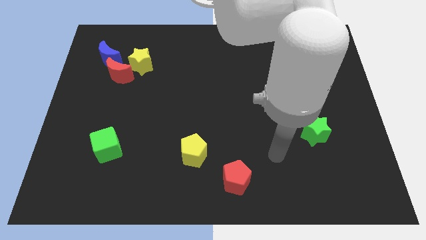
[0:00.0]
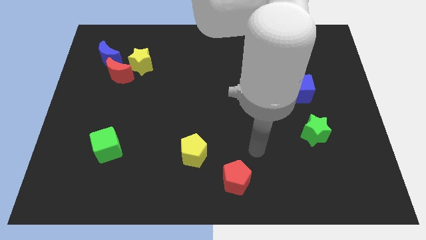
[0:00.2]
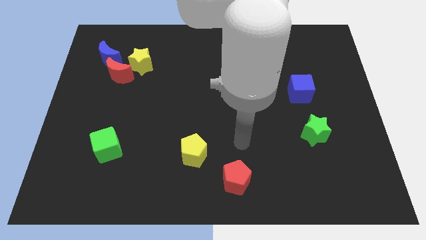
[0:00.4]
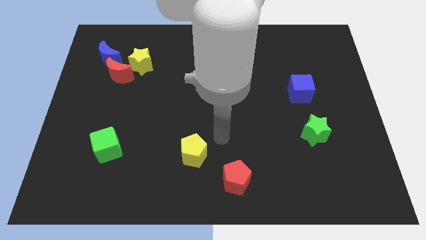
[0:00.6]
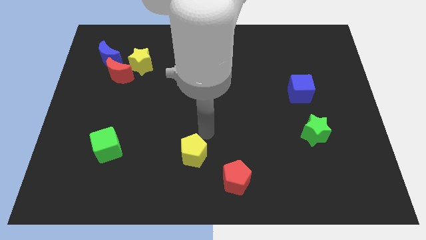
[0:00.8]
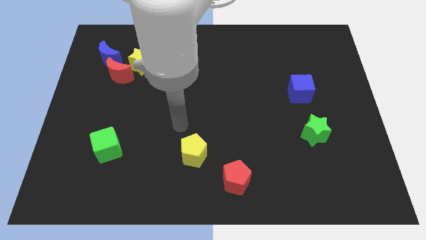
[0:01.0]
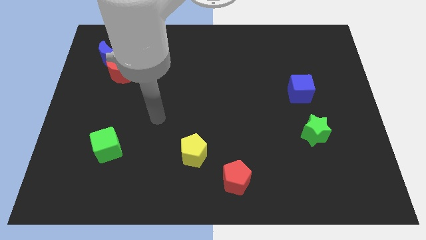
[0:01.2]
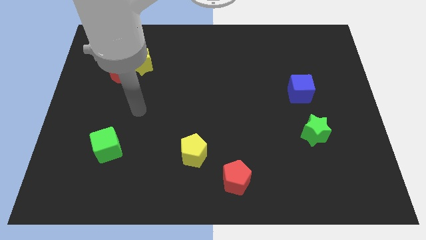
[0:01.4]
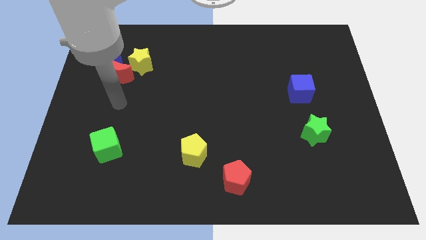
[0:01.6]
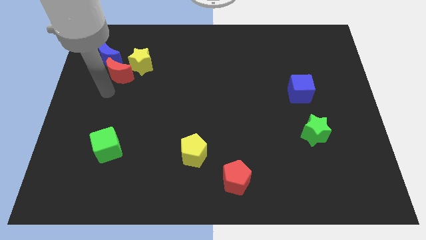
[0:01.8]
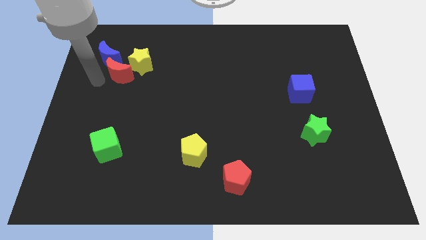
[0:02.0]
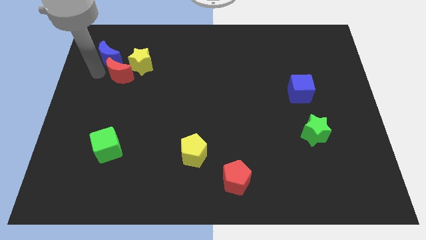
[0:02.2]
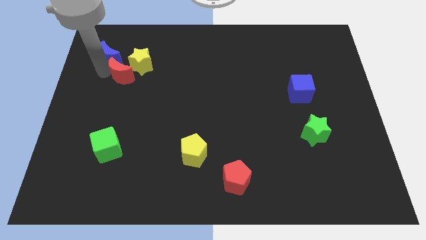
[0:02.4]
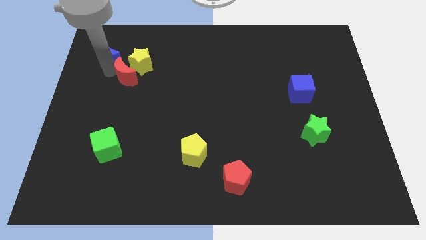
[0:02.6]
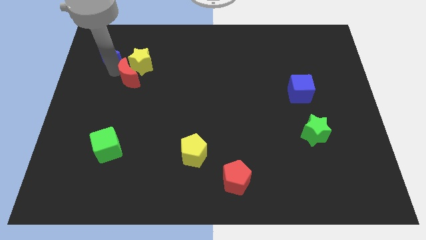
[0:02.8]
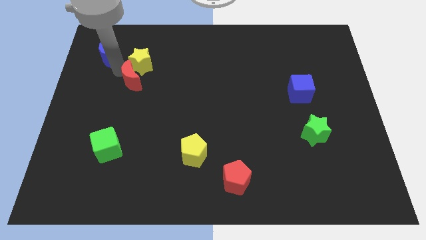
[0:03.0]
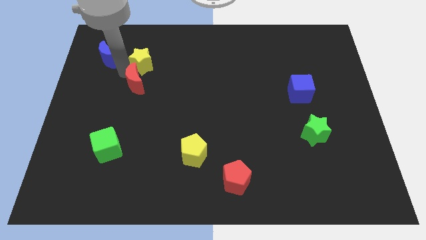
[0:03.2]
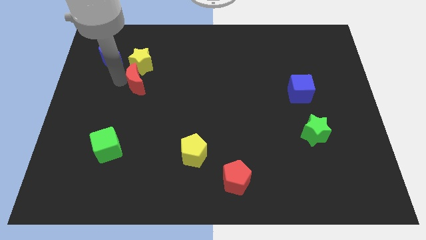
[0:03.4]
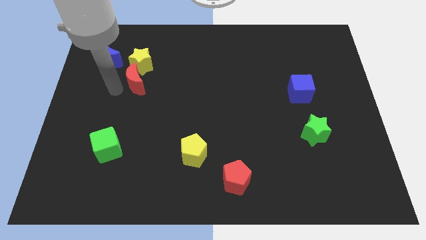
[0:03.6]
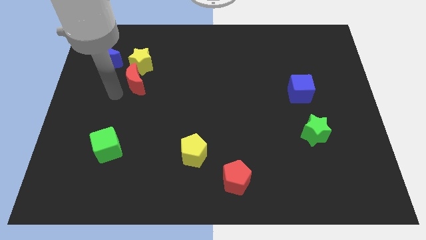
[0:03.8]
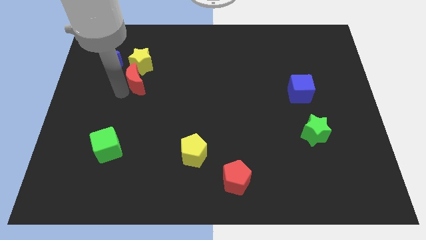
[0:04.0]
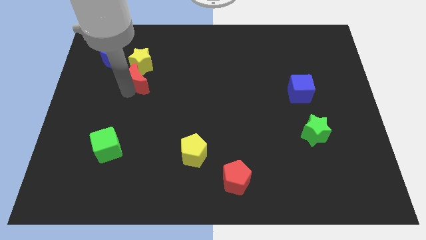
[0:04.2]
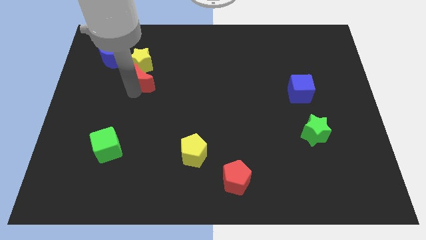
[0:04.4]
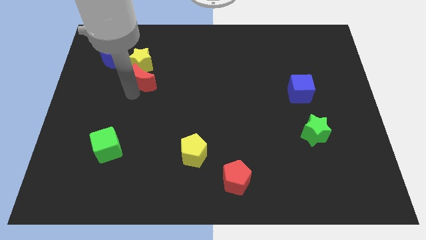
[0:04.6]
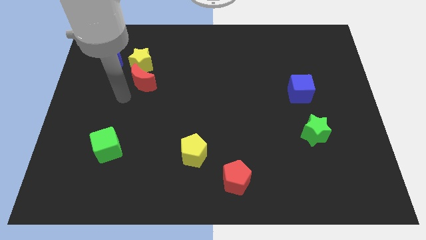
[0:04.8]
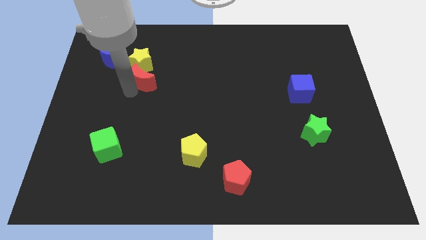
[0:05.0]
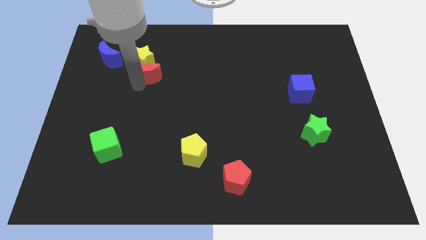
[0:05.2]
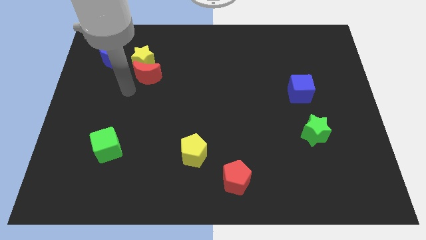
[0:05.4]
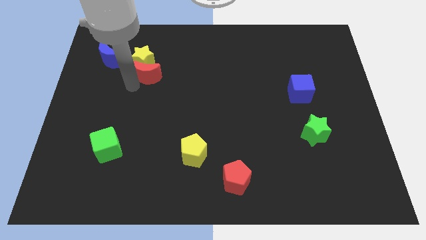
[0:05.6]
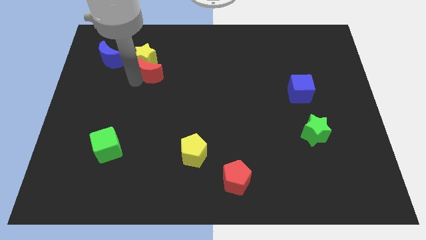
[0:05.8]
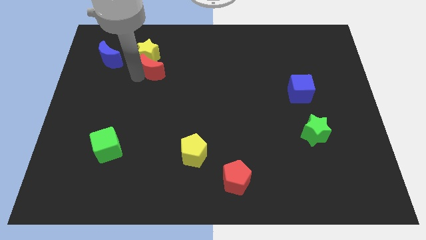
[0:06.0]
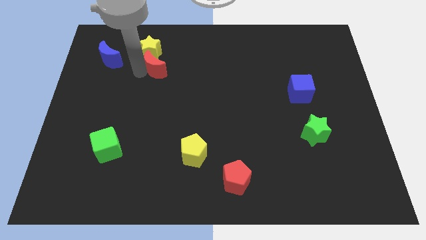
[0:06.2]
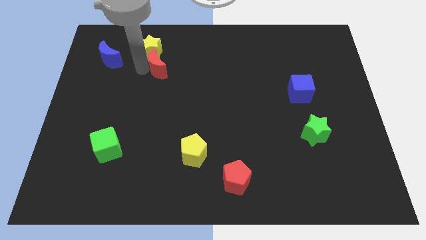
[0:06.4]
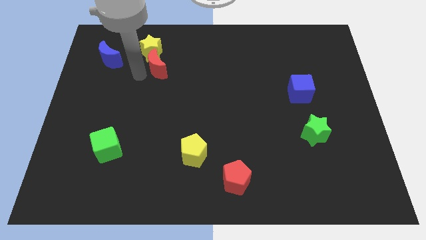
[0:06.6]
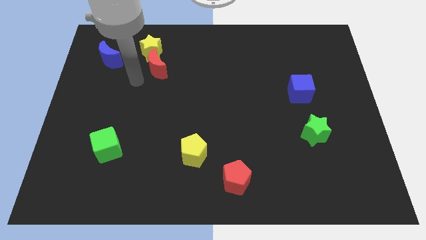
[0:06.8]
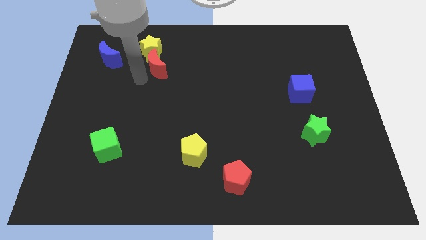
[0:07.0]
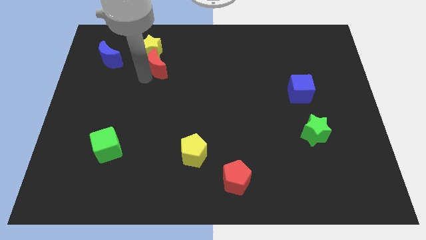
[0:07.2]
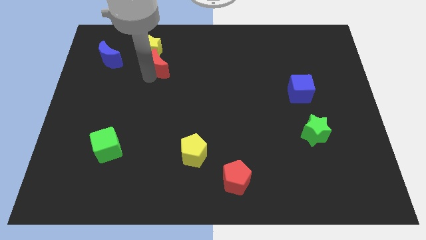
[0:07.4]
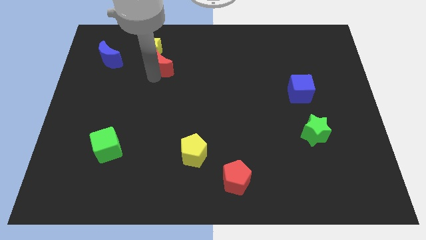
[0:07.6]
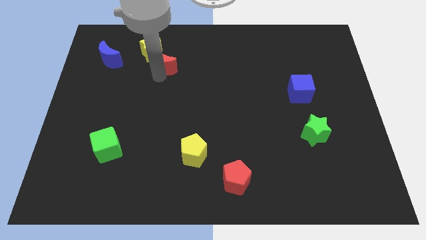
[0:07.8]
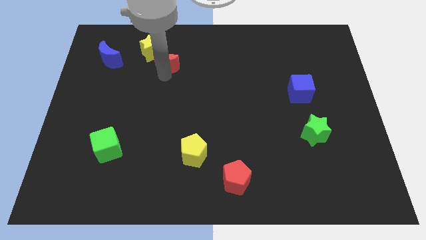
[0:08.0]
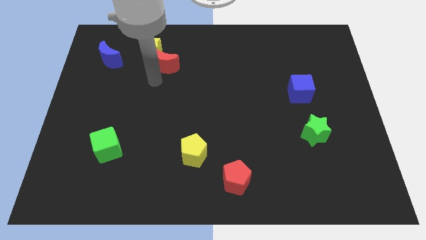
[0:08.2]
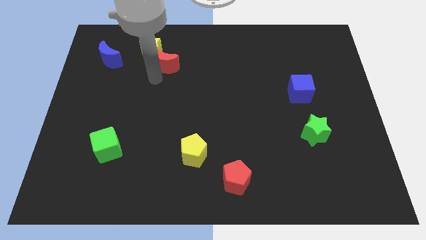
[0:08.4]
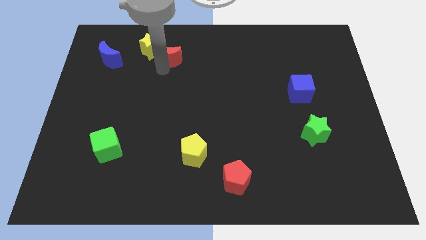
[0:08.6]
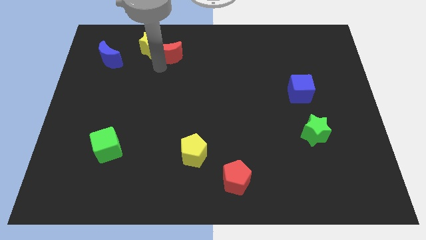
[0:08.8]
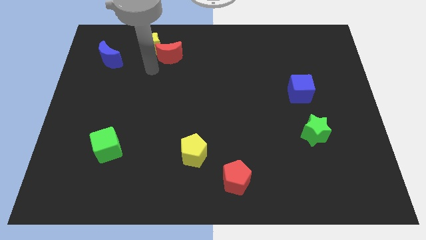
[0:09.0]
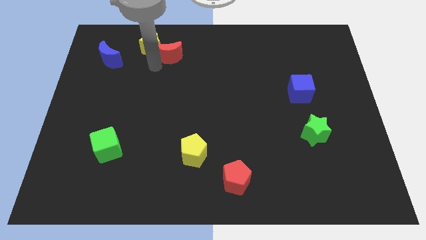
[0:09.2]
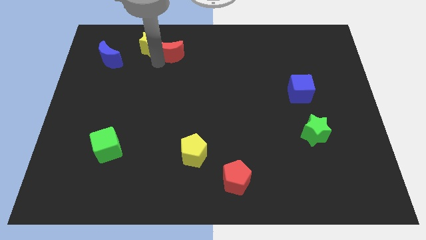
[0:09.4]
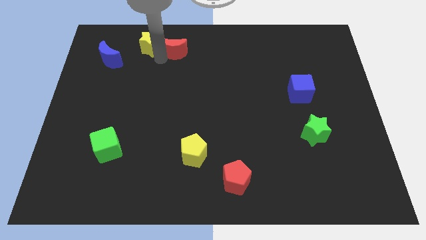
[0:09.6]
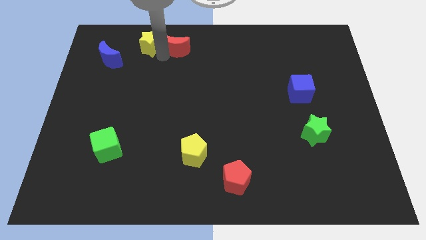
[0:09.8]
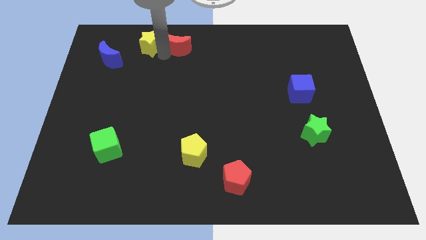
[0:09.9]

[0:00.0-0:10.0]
move the red moon to the towards your base
